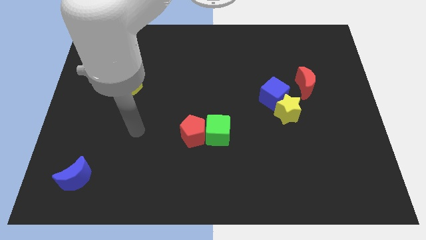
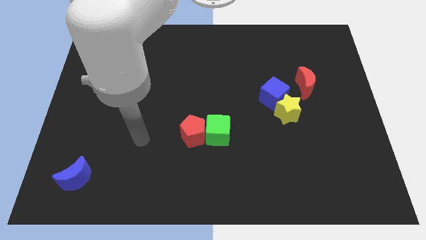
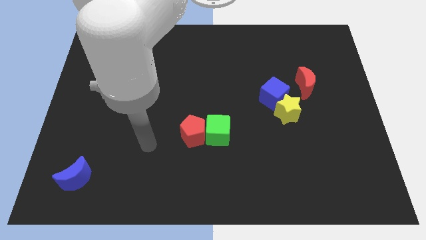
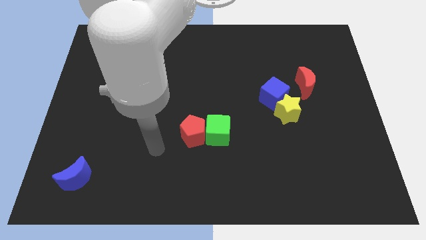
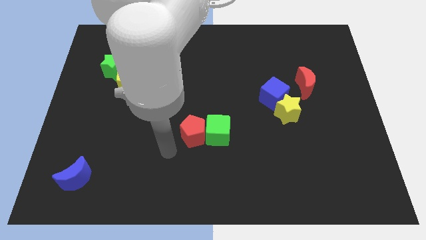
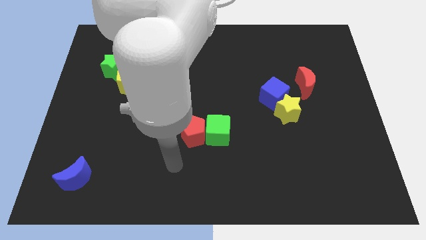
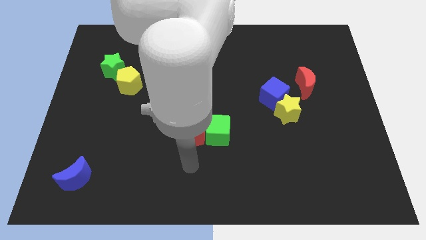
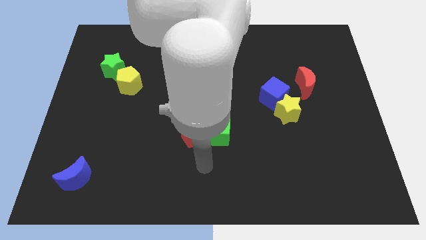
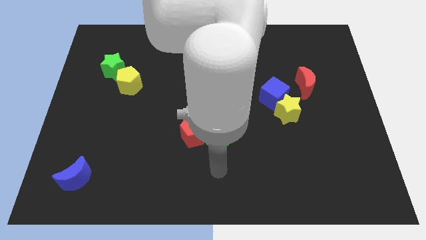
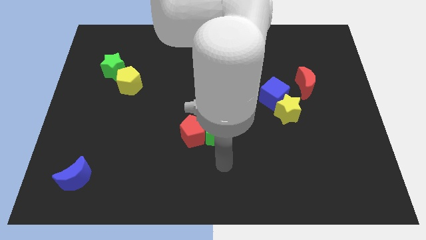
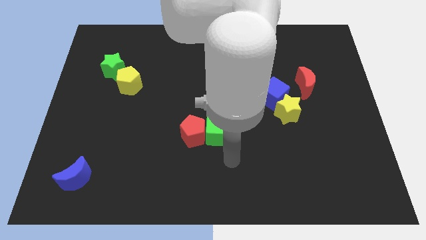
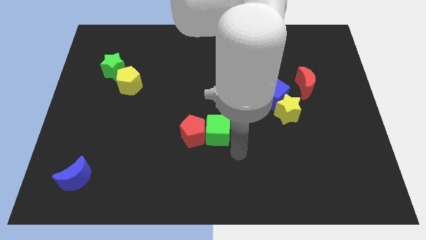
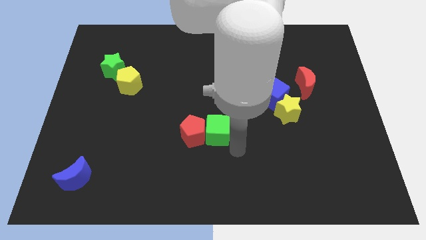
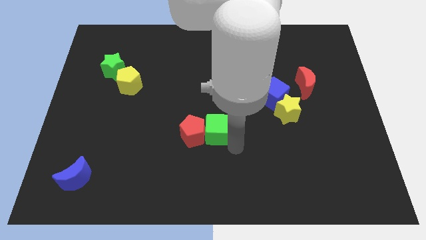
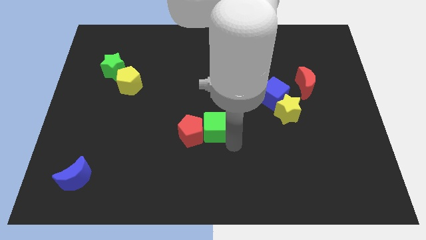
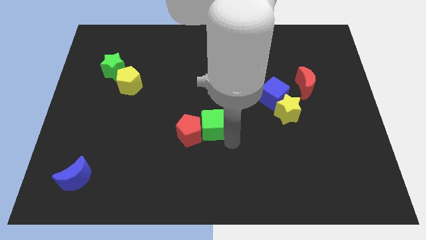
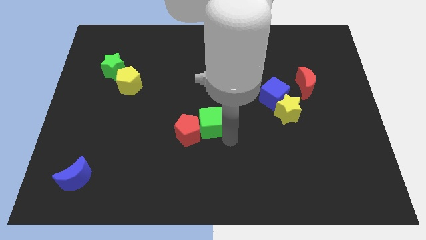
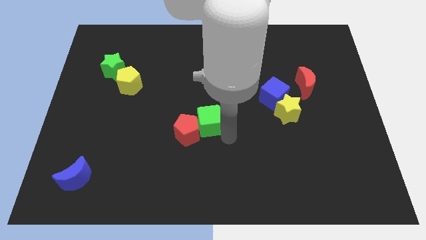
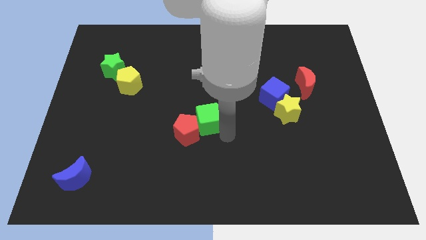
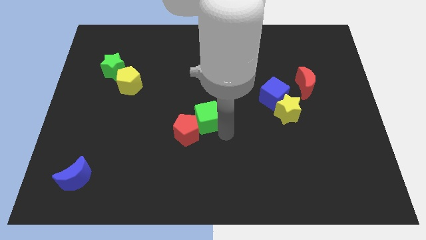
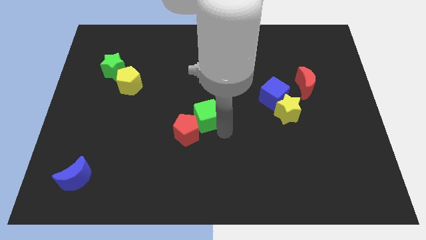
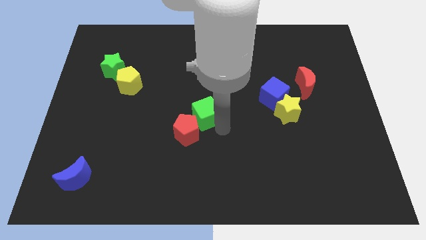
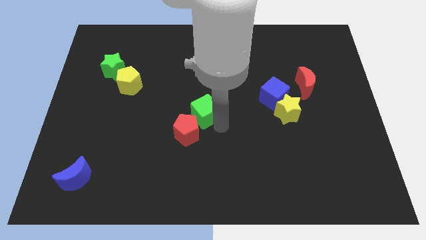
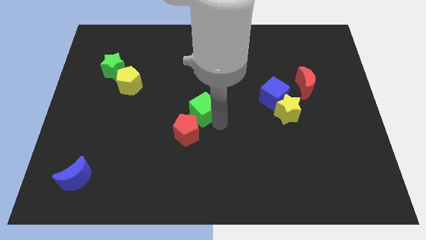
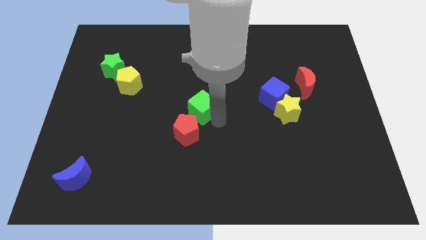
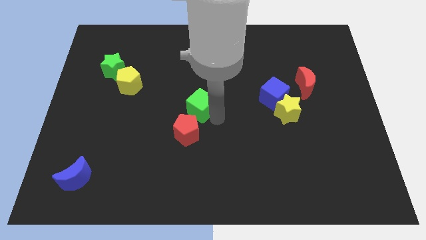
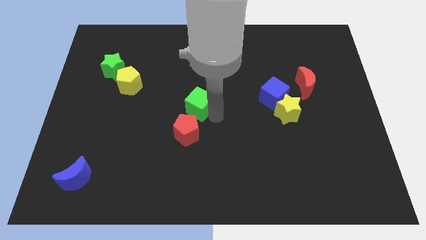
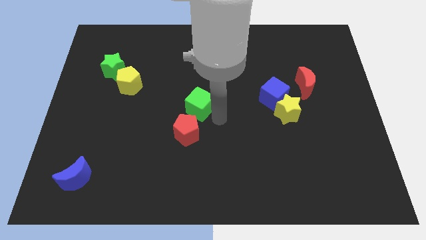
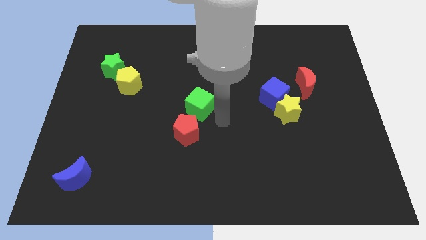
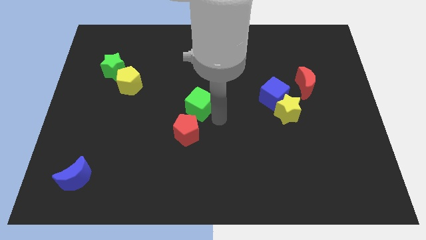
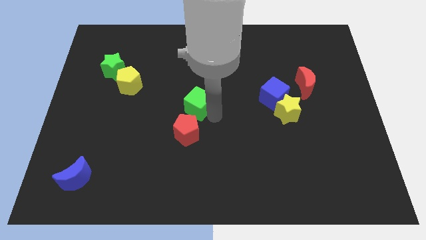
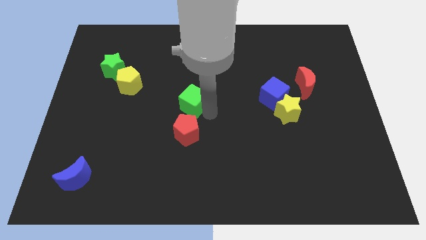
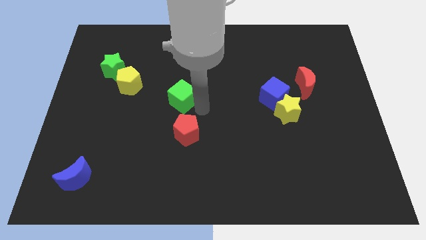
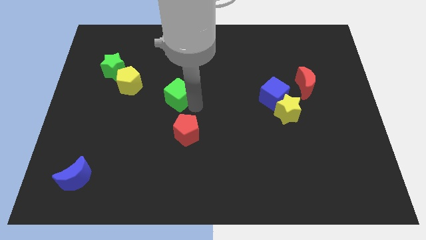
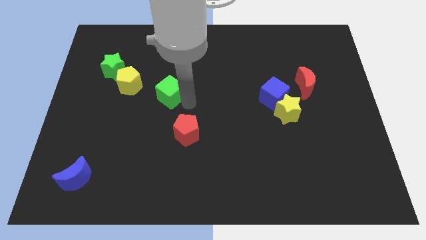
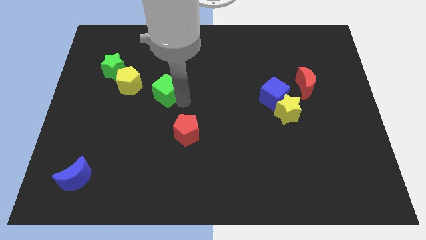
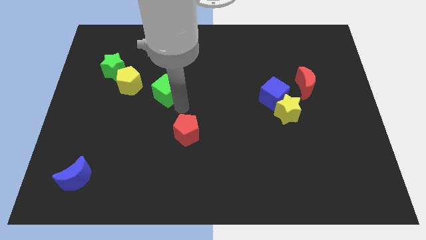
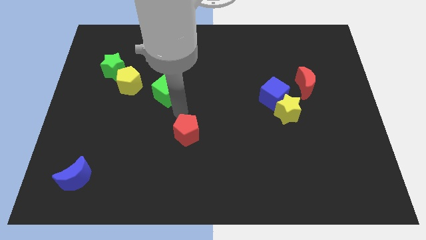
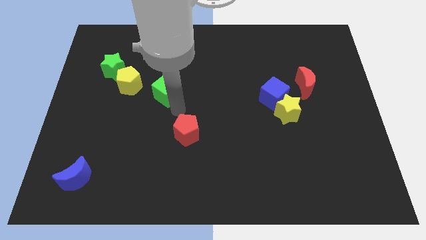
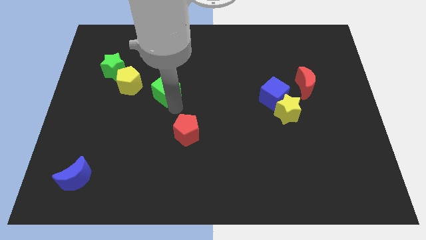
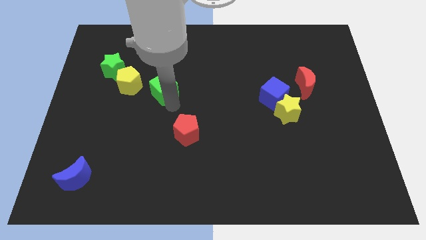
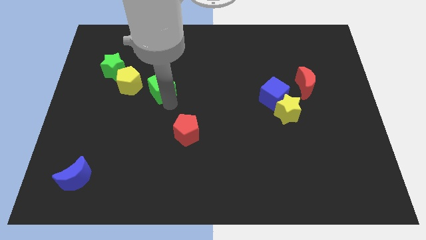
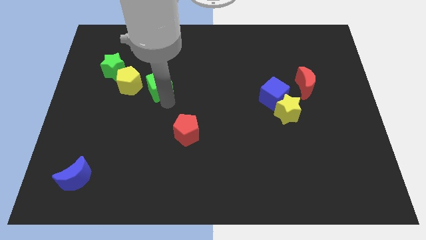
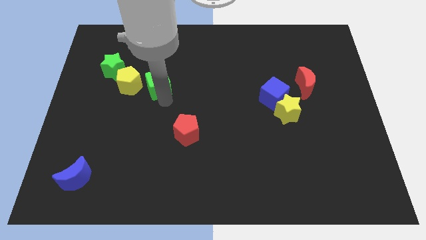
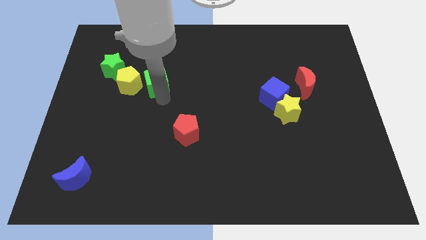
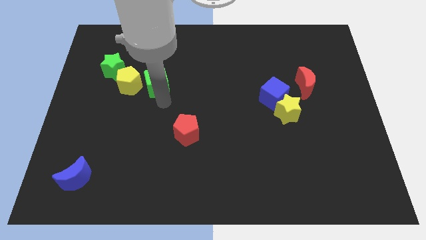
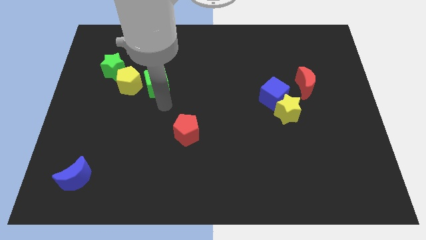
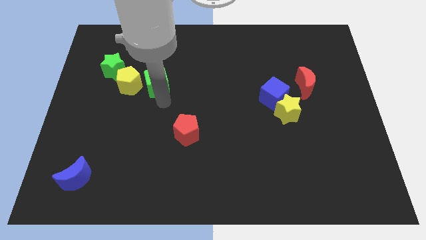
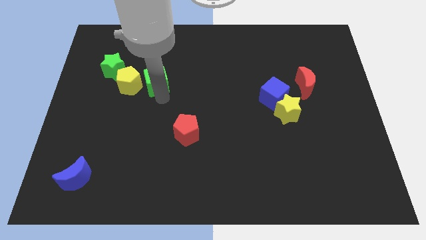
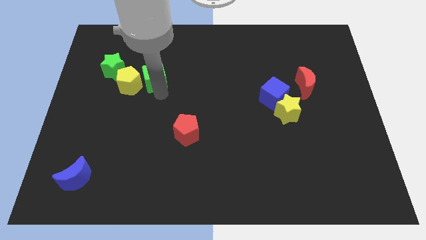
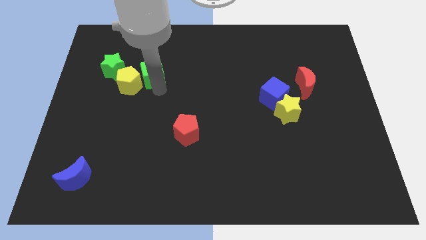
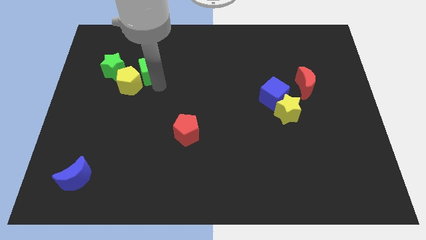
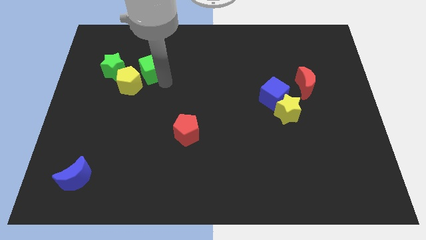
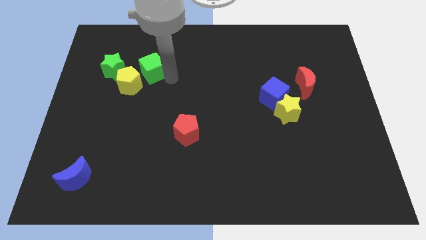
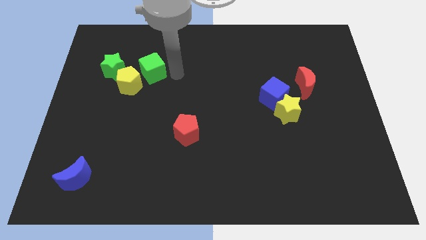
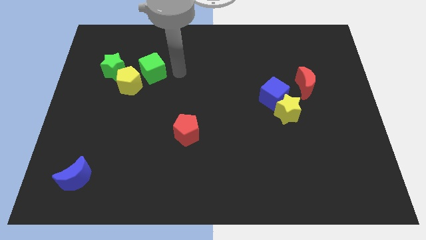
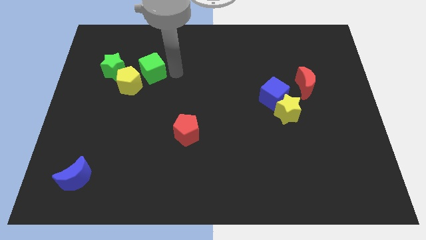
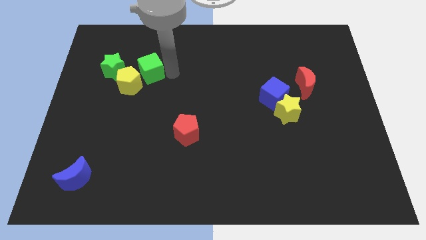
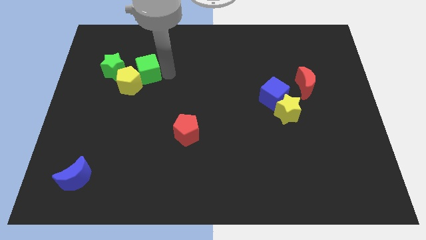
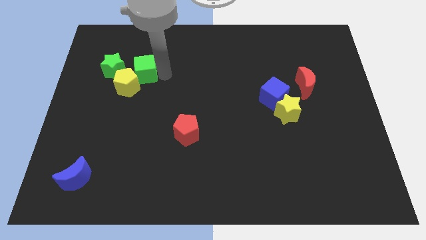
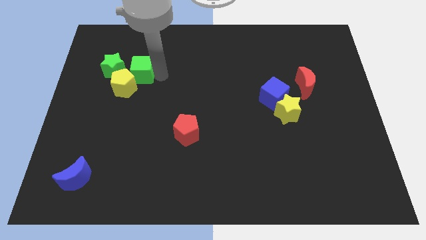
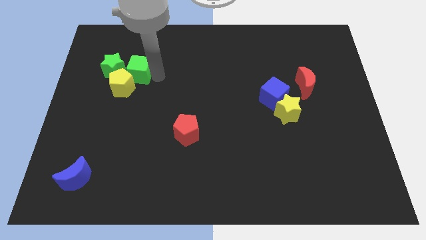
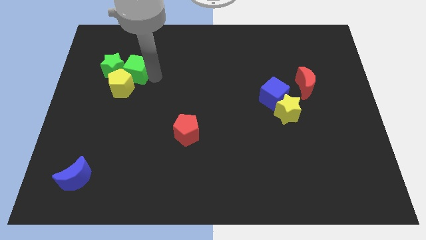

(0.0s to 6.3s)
put the green cube towards the green star
